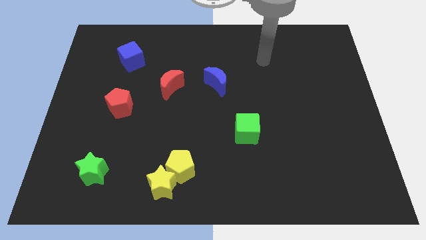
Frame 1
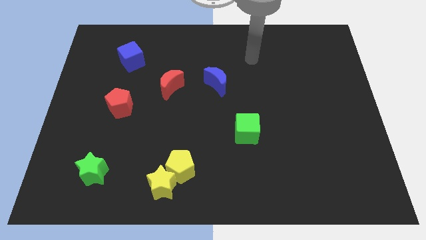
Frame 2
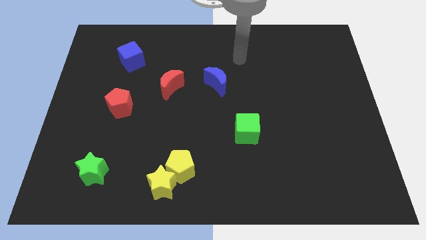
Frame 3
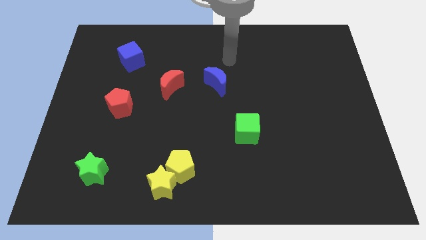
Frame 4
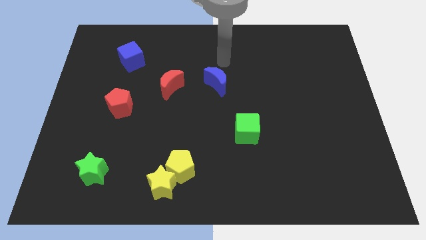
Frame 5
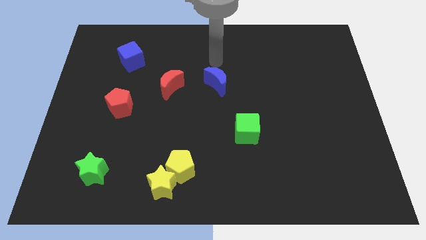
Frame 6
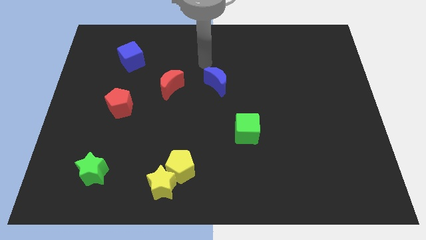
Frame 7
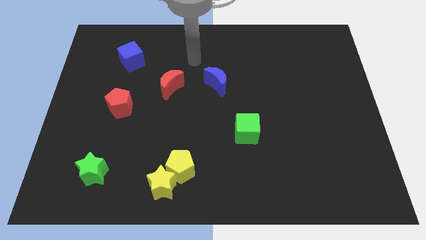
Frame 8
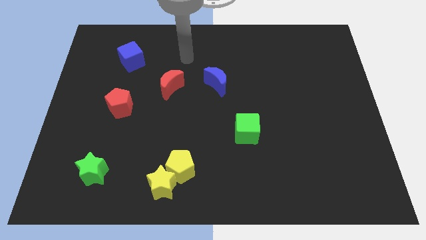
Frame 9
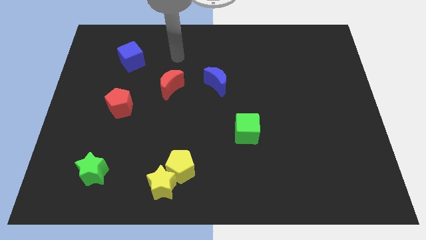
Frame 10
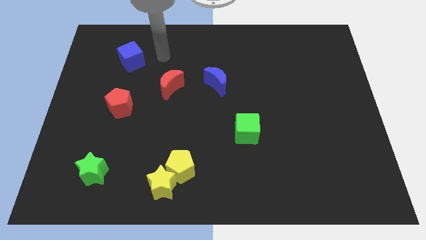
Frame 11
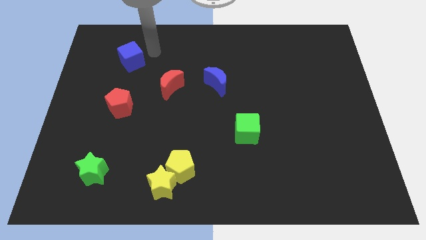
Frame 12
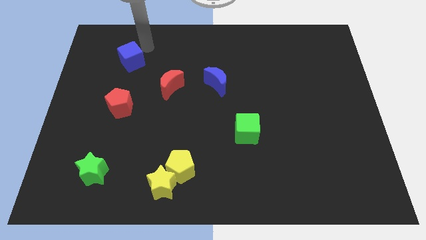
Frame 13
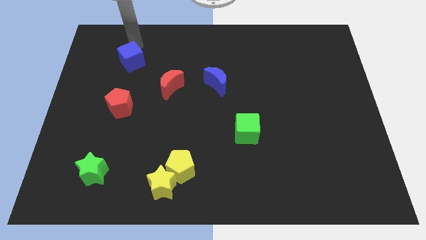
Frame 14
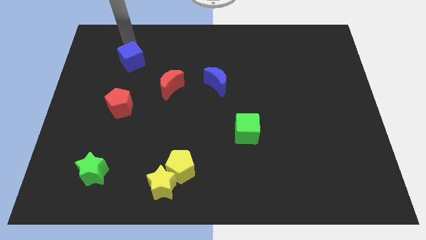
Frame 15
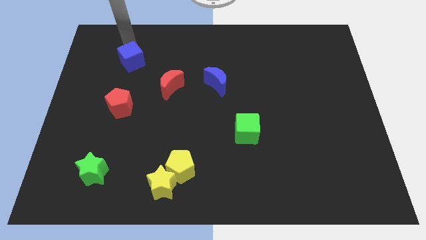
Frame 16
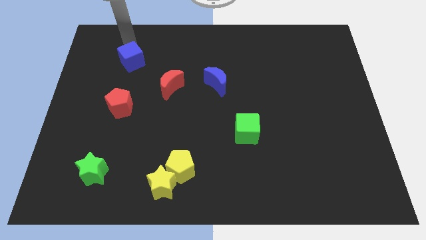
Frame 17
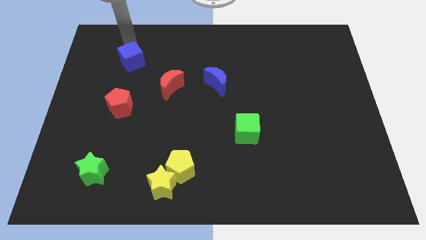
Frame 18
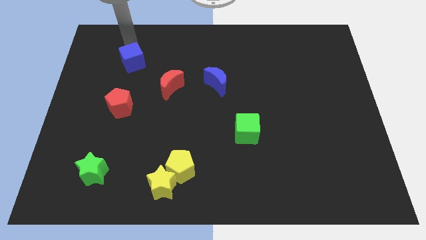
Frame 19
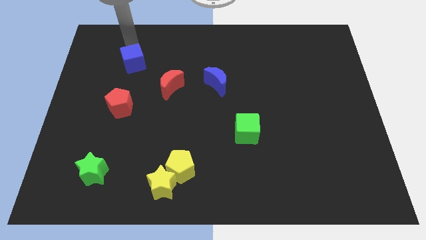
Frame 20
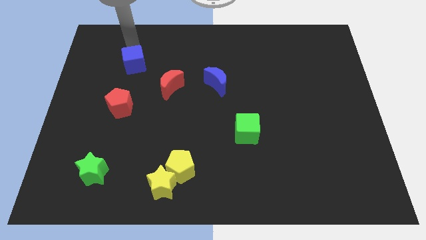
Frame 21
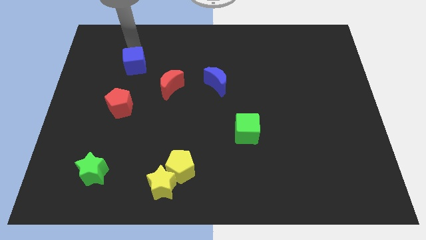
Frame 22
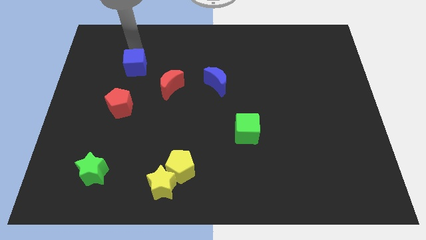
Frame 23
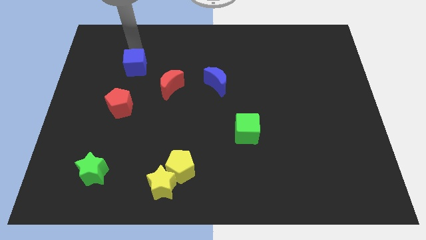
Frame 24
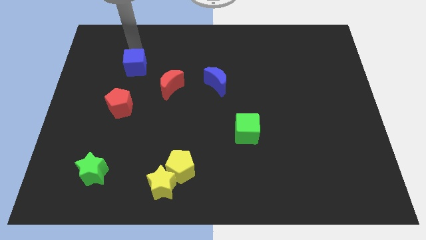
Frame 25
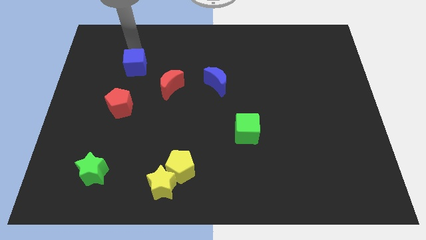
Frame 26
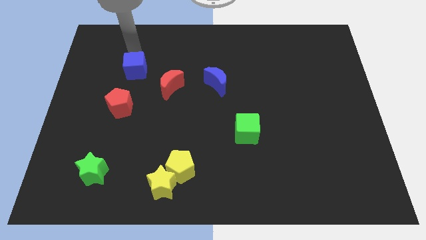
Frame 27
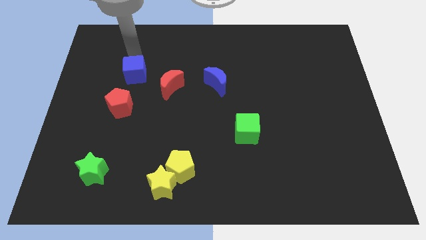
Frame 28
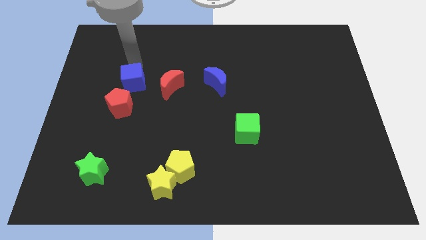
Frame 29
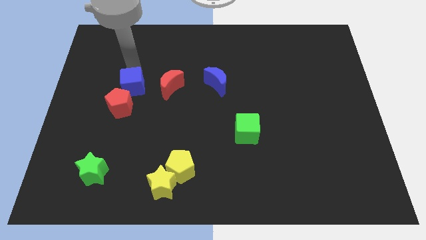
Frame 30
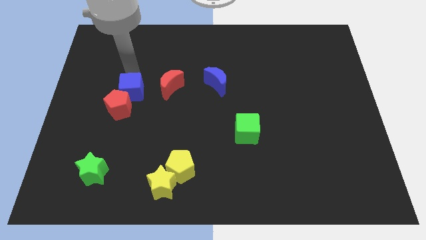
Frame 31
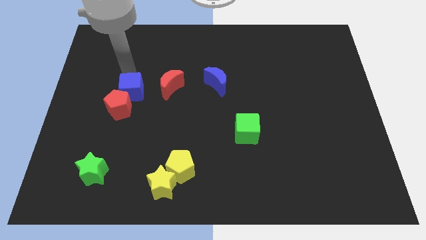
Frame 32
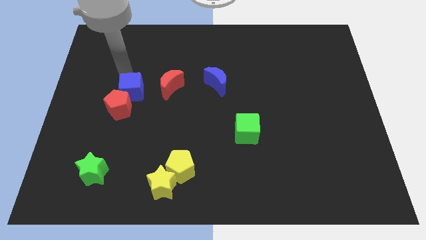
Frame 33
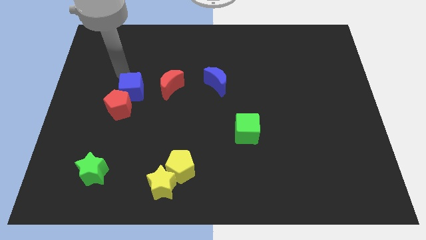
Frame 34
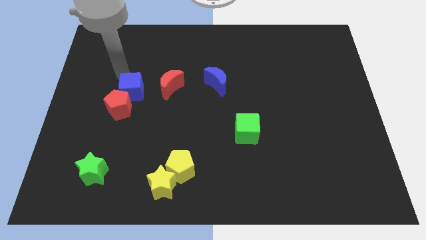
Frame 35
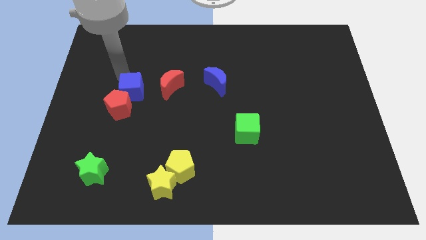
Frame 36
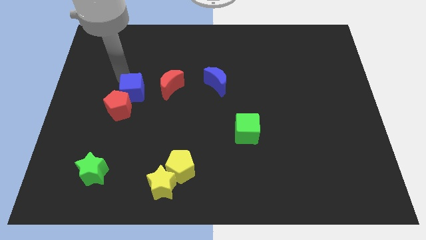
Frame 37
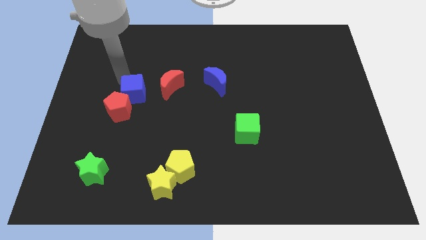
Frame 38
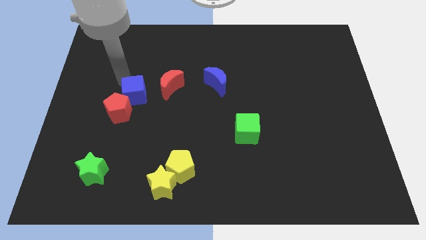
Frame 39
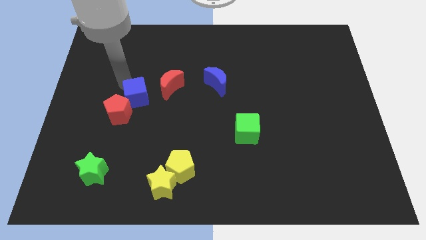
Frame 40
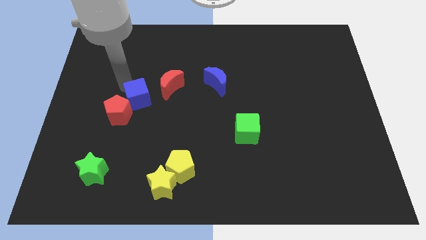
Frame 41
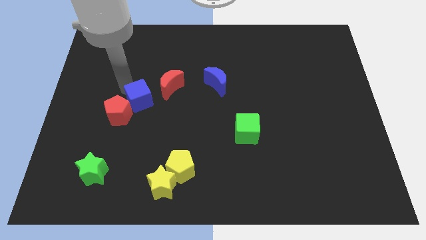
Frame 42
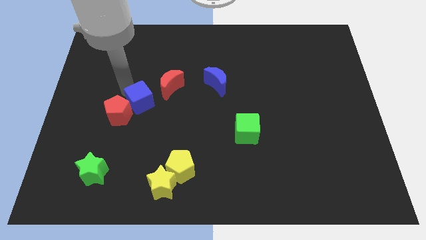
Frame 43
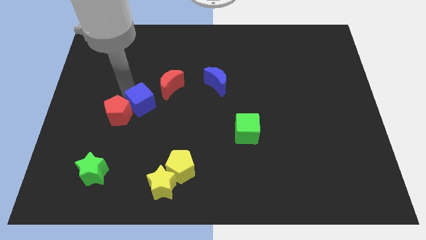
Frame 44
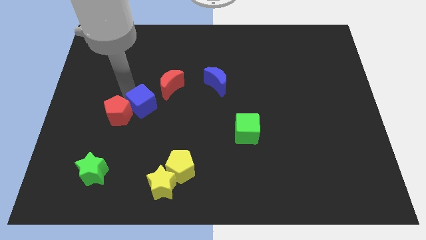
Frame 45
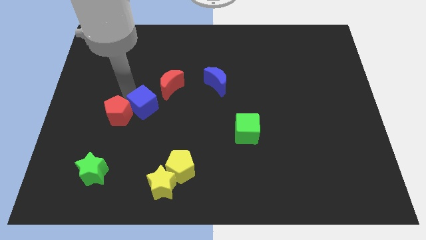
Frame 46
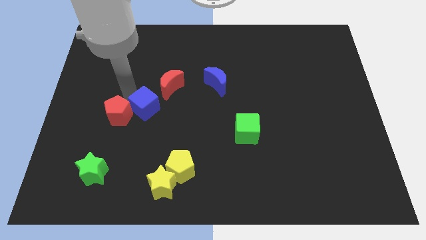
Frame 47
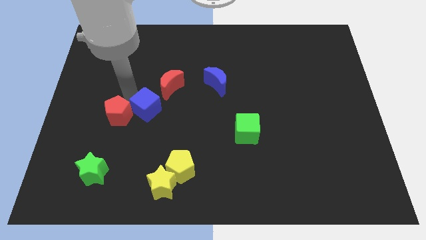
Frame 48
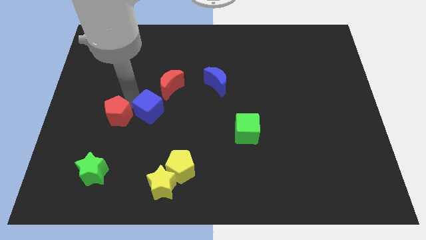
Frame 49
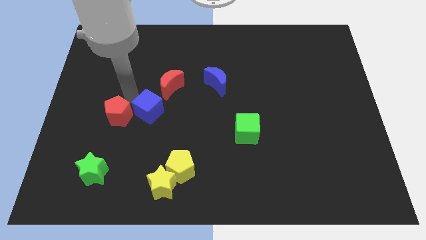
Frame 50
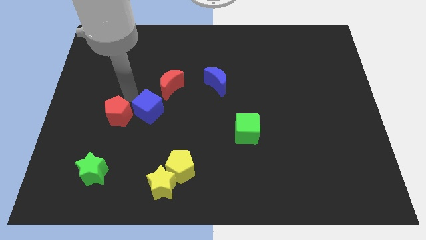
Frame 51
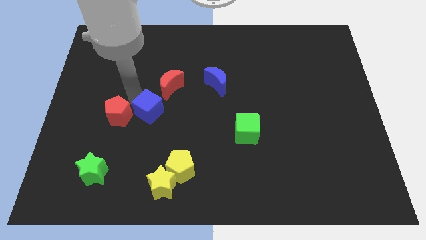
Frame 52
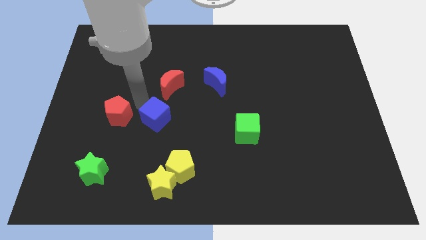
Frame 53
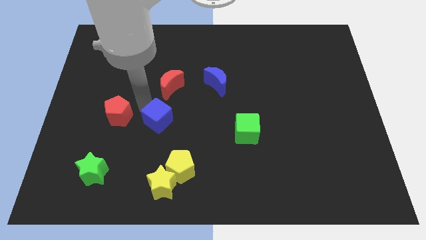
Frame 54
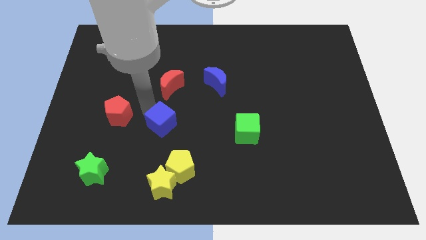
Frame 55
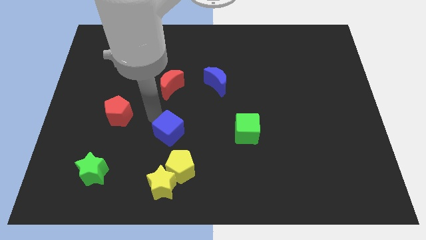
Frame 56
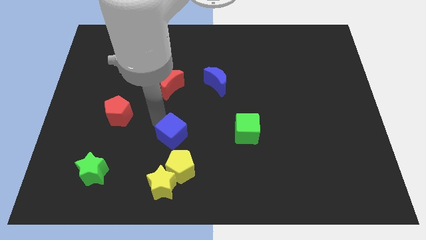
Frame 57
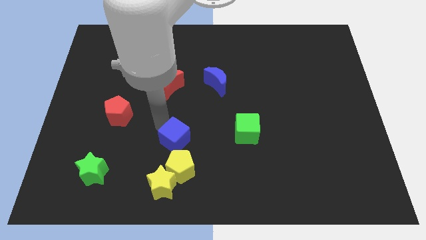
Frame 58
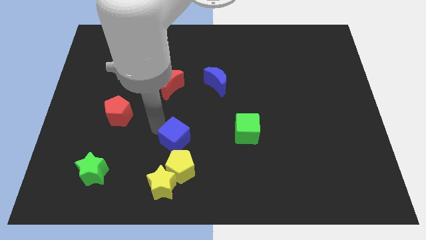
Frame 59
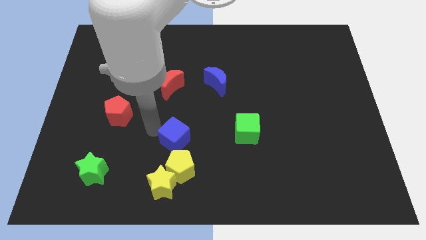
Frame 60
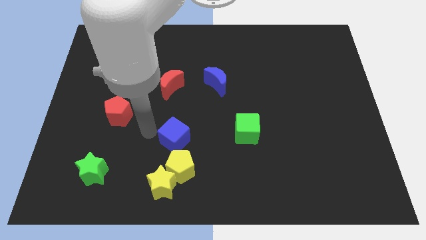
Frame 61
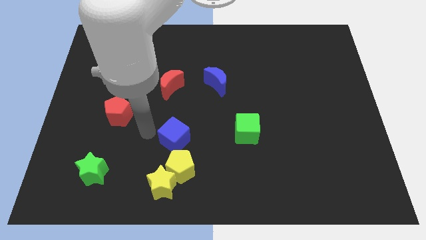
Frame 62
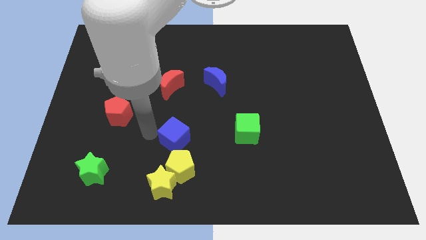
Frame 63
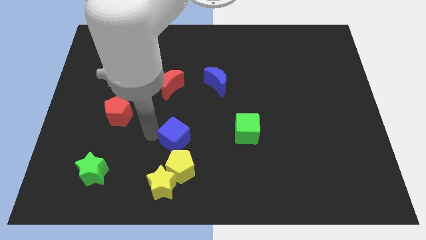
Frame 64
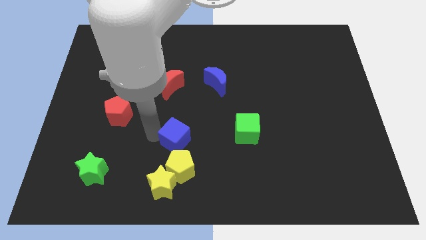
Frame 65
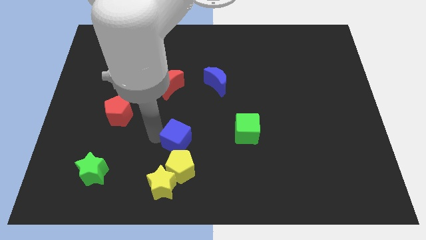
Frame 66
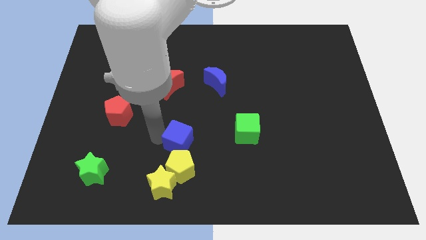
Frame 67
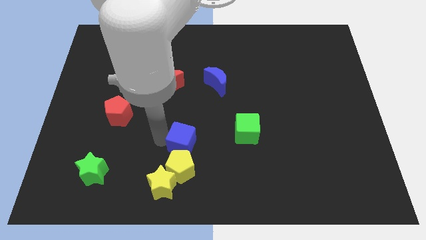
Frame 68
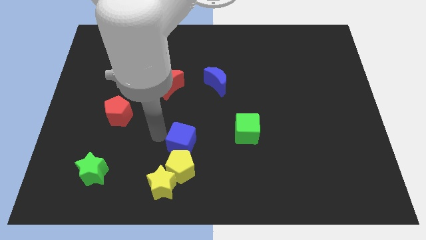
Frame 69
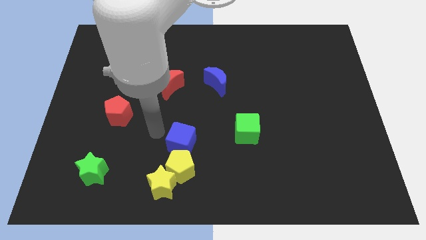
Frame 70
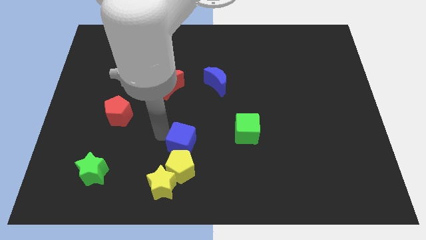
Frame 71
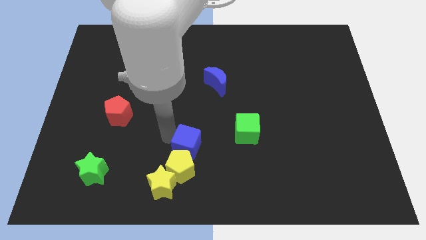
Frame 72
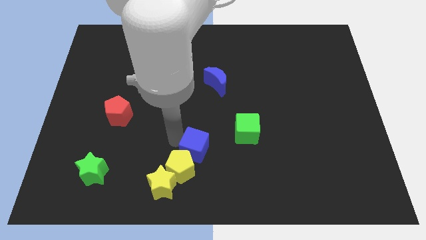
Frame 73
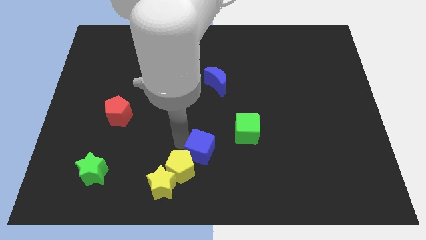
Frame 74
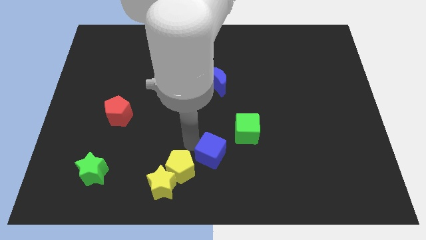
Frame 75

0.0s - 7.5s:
push the blue cube to the bottom
